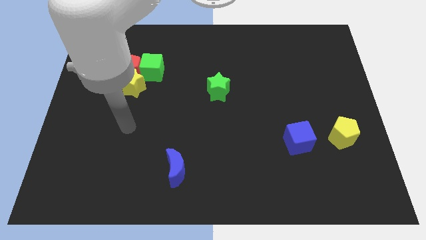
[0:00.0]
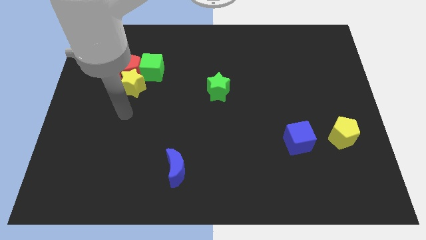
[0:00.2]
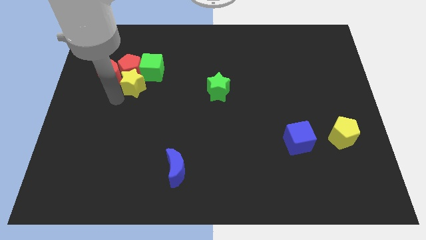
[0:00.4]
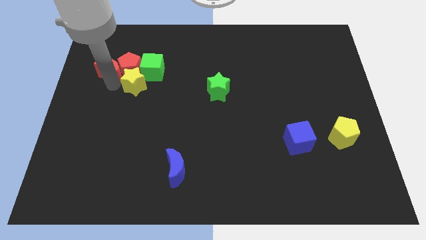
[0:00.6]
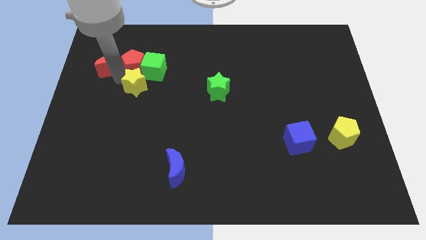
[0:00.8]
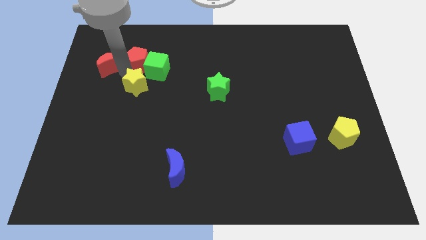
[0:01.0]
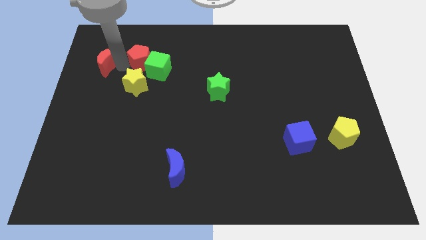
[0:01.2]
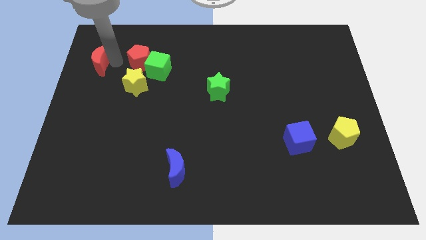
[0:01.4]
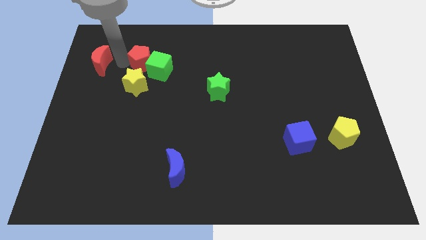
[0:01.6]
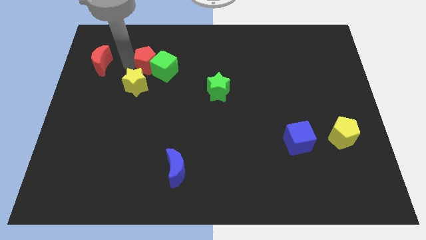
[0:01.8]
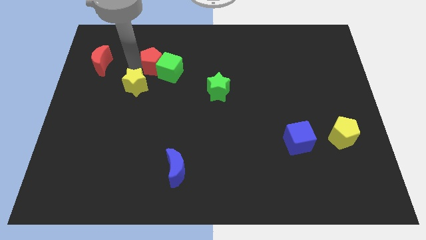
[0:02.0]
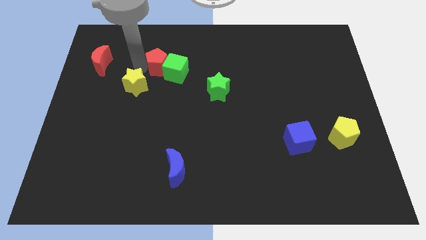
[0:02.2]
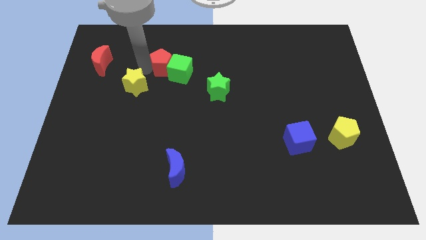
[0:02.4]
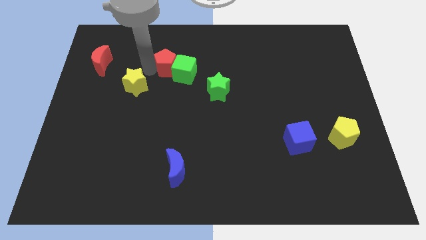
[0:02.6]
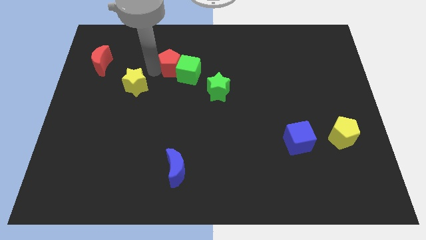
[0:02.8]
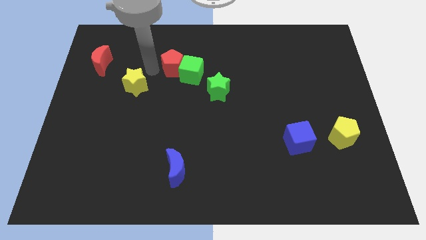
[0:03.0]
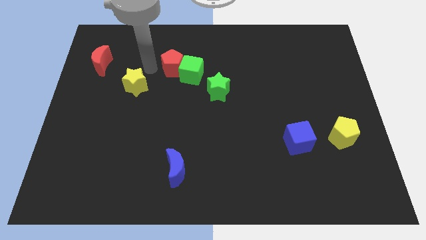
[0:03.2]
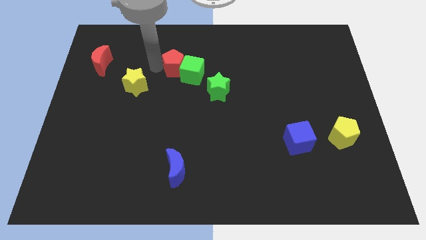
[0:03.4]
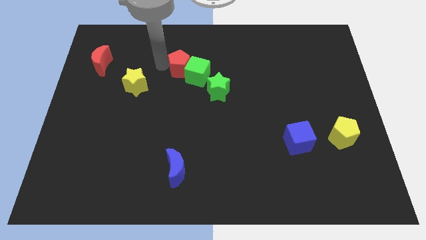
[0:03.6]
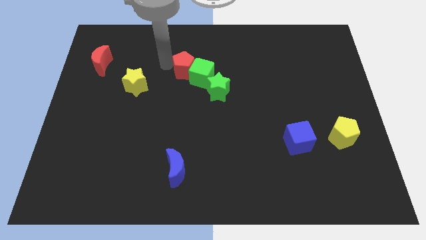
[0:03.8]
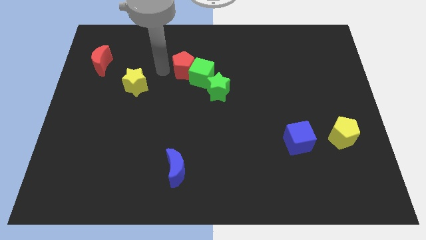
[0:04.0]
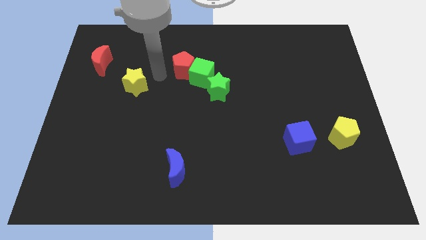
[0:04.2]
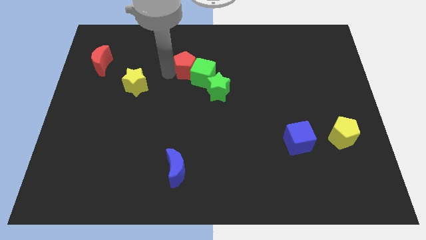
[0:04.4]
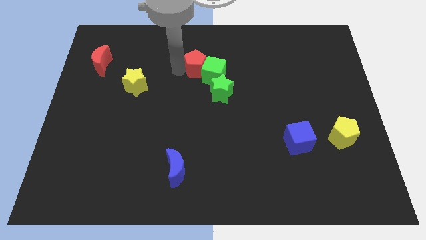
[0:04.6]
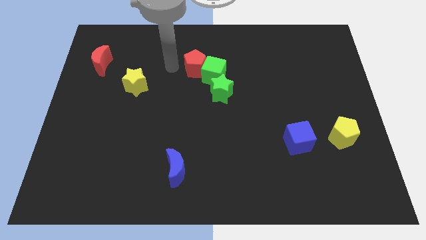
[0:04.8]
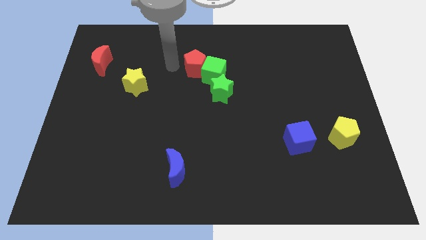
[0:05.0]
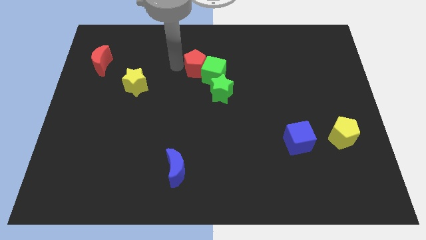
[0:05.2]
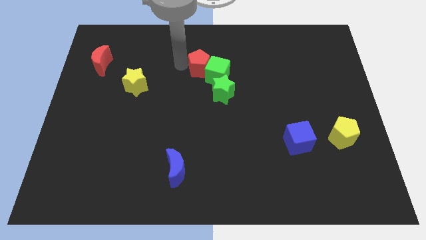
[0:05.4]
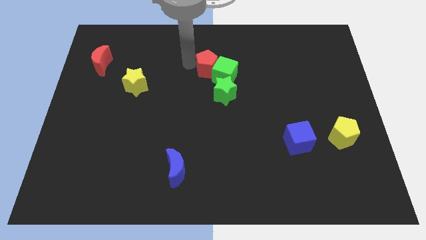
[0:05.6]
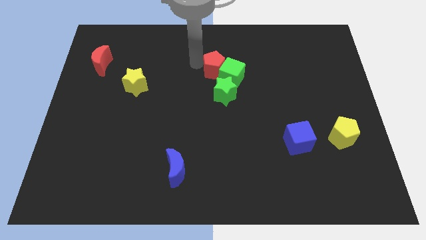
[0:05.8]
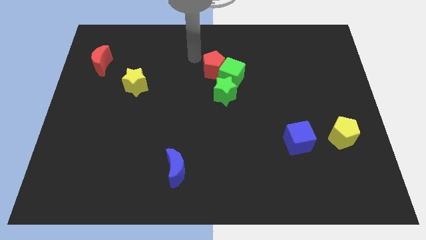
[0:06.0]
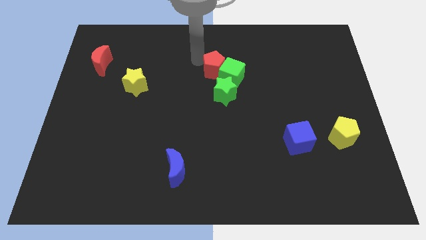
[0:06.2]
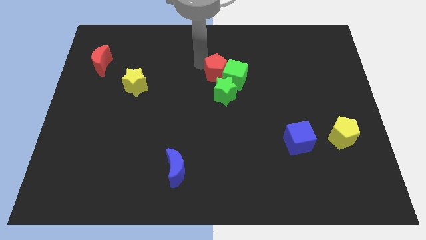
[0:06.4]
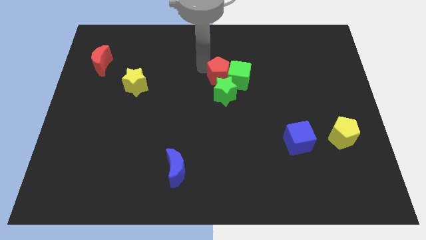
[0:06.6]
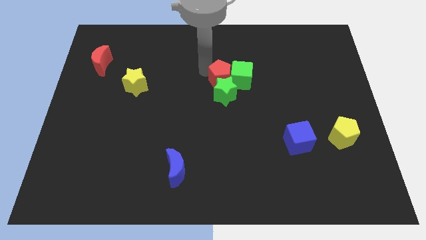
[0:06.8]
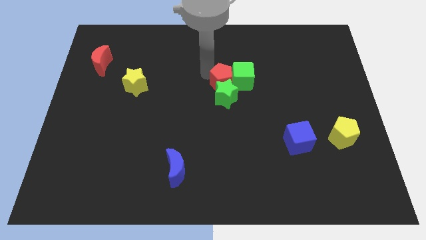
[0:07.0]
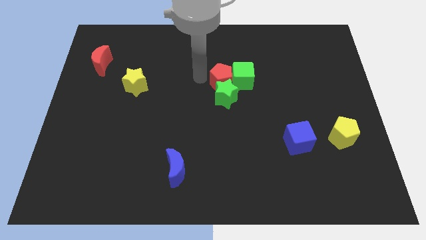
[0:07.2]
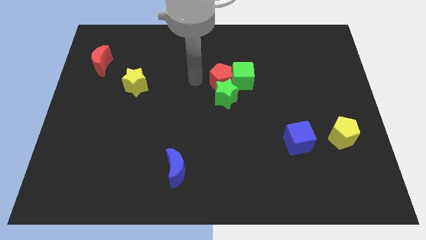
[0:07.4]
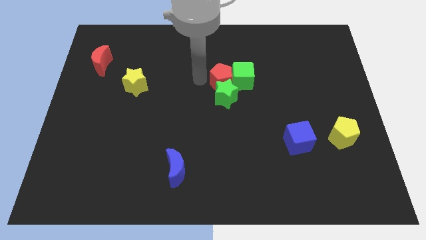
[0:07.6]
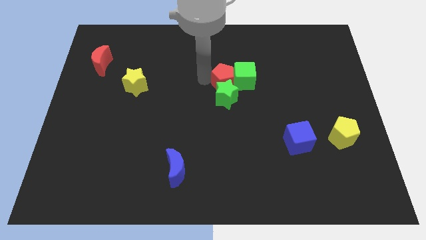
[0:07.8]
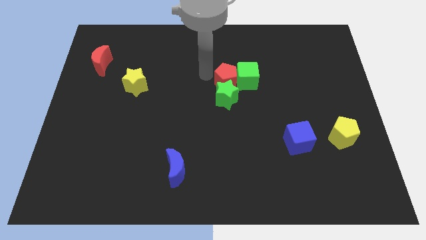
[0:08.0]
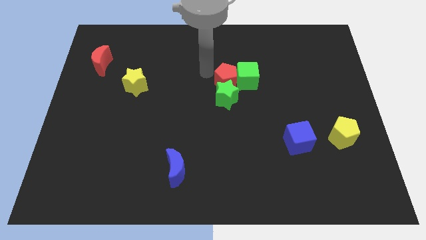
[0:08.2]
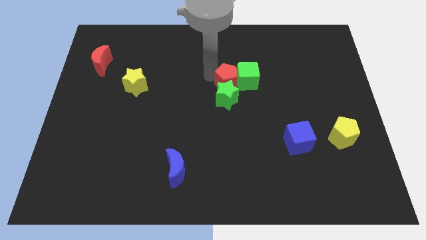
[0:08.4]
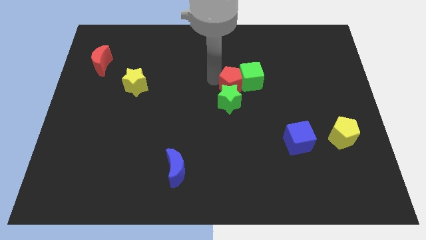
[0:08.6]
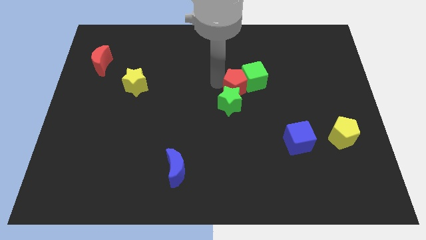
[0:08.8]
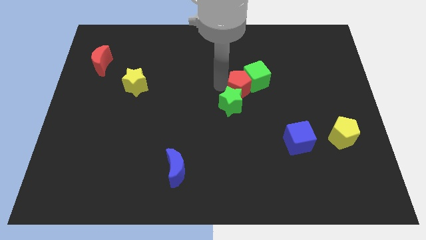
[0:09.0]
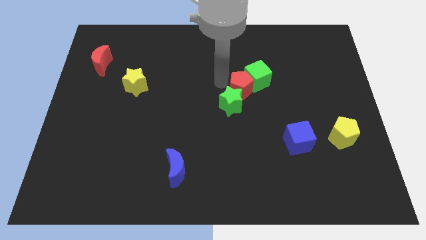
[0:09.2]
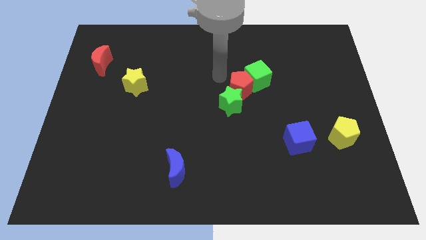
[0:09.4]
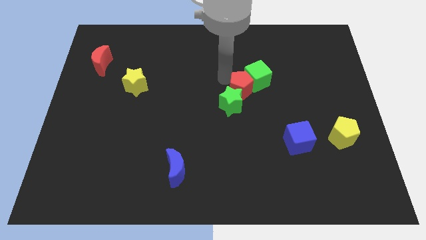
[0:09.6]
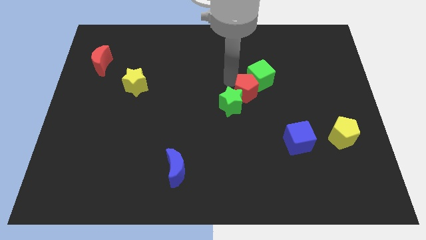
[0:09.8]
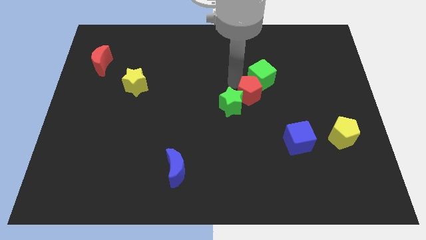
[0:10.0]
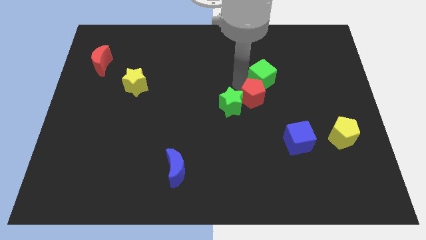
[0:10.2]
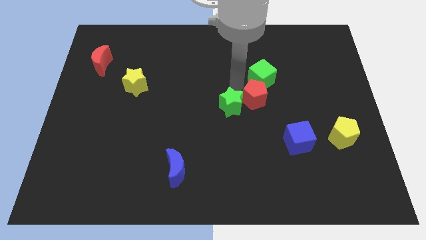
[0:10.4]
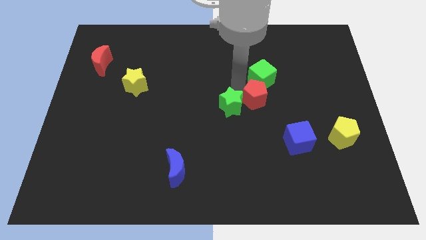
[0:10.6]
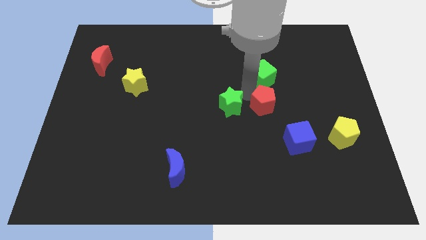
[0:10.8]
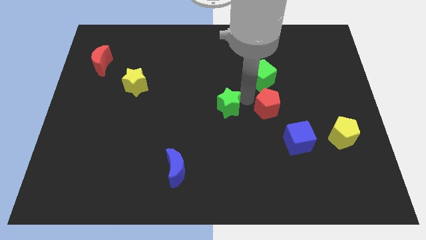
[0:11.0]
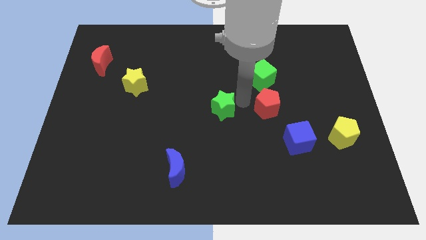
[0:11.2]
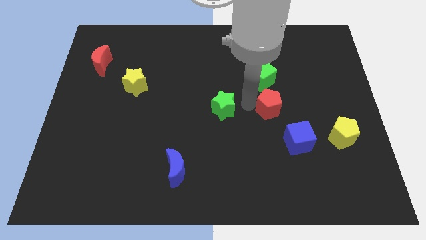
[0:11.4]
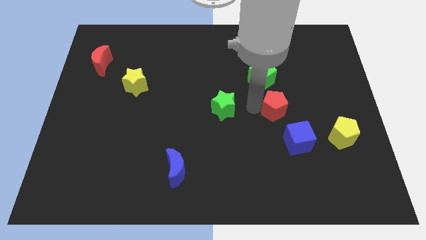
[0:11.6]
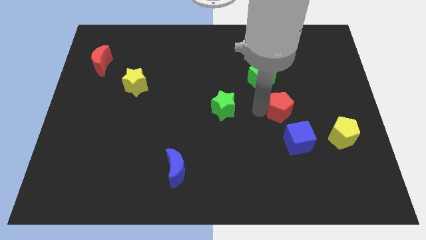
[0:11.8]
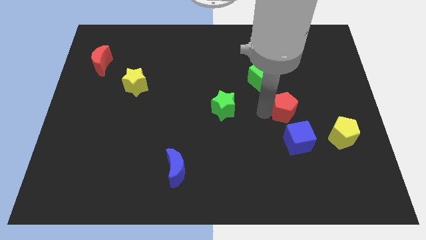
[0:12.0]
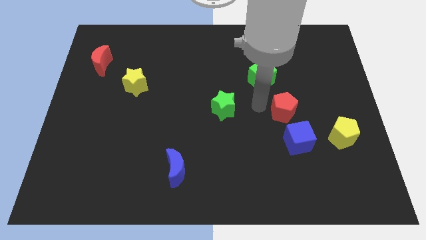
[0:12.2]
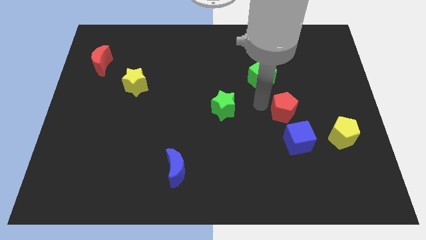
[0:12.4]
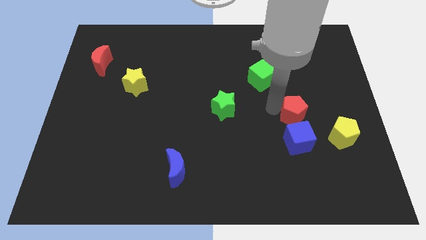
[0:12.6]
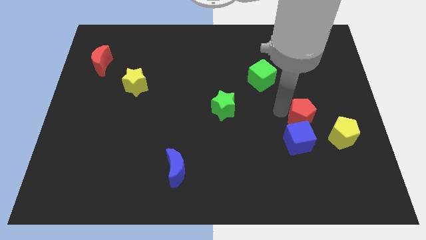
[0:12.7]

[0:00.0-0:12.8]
move the red pentagon to the top right side of the blue cube
